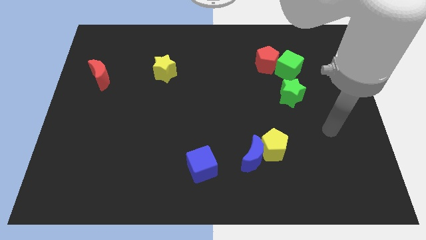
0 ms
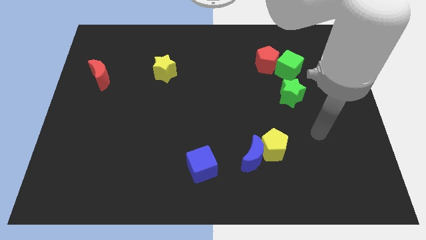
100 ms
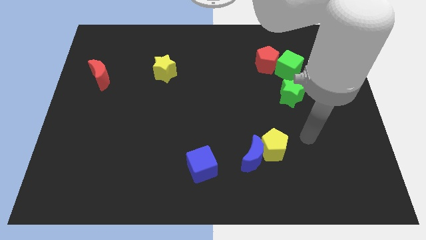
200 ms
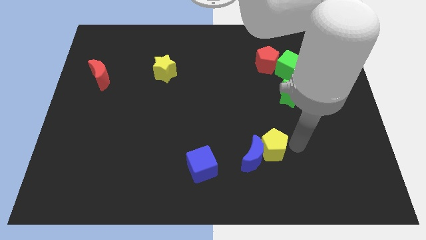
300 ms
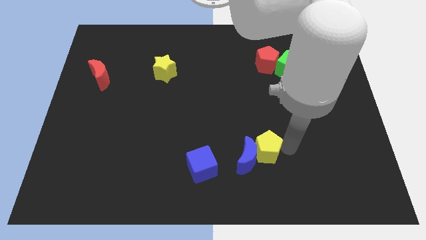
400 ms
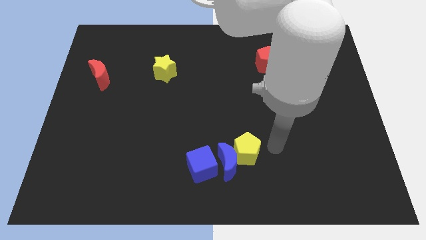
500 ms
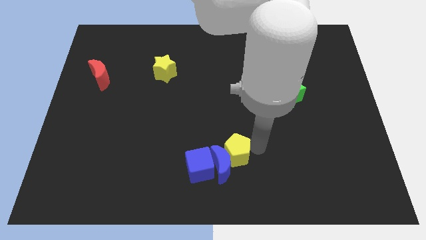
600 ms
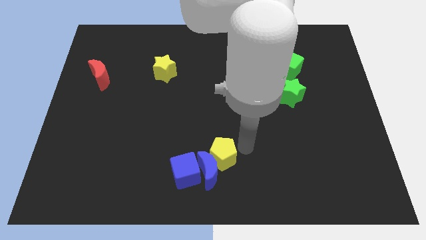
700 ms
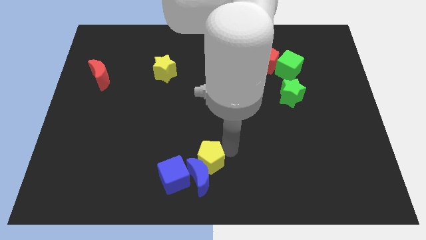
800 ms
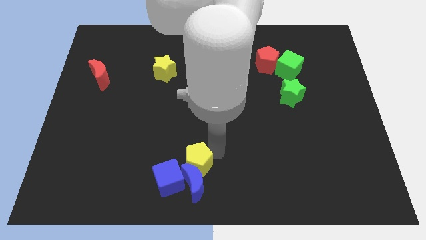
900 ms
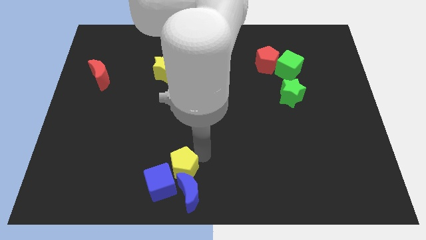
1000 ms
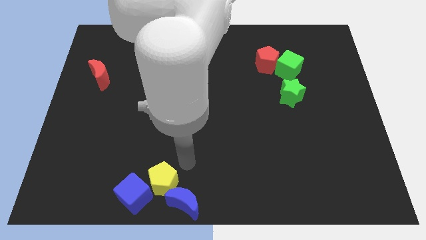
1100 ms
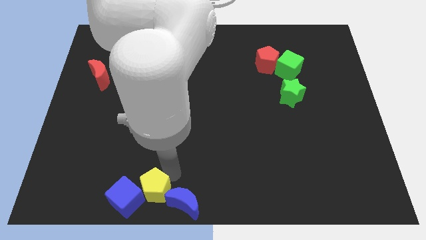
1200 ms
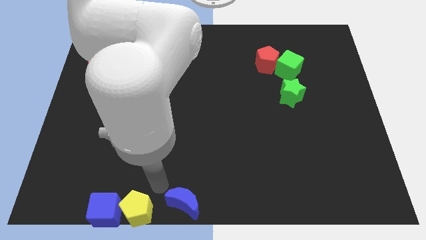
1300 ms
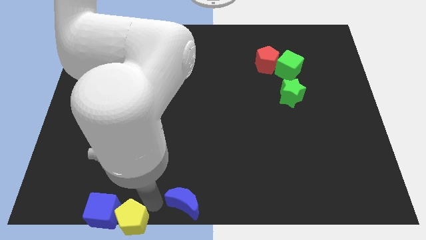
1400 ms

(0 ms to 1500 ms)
move the blue moon away from the yellow pentagon

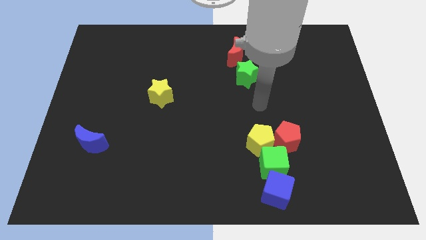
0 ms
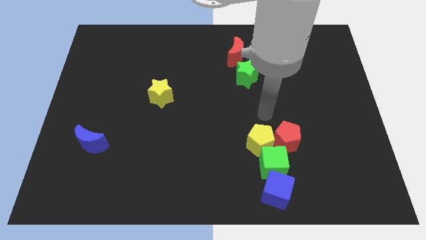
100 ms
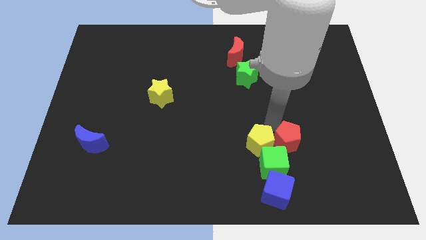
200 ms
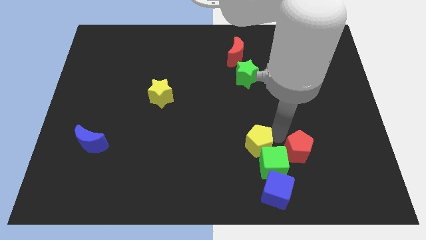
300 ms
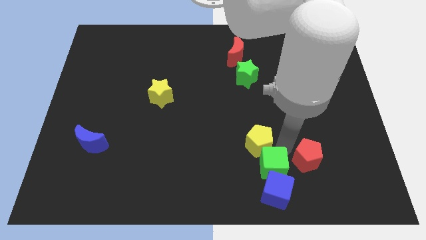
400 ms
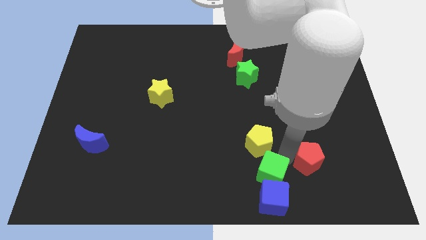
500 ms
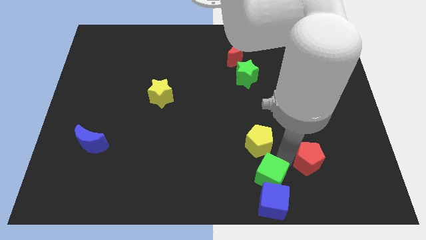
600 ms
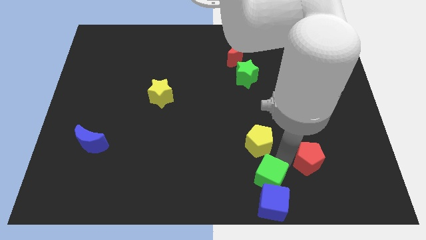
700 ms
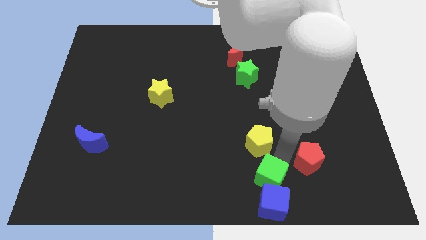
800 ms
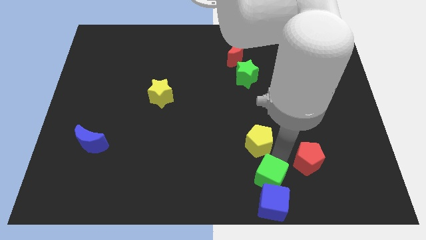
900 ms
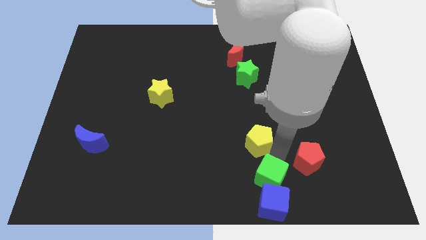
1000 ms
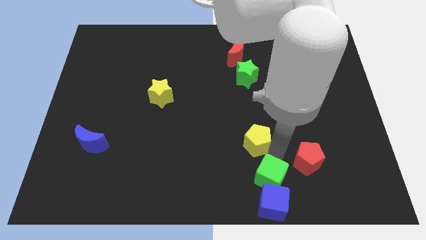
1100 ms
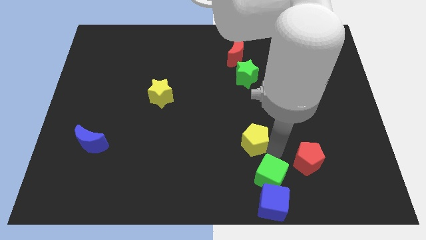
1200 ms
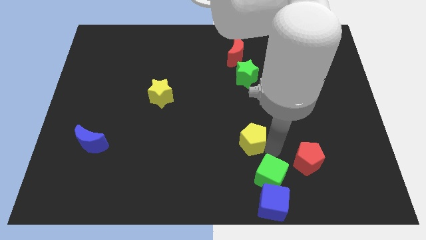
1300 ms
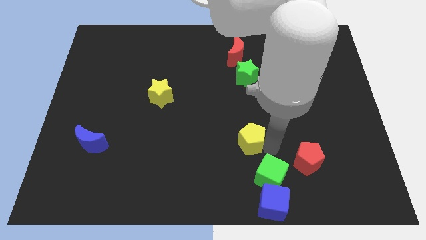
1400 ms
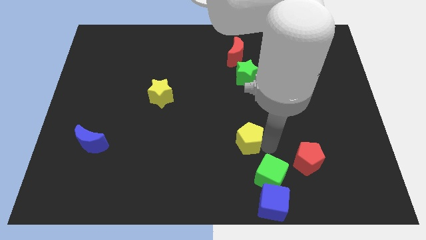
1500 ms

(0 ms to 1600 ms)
move the yellow pentagon away from the green cube and red pentagon

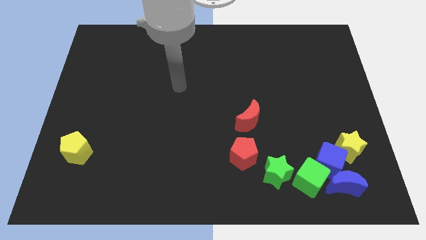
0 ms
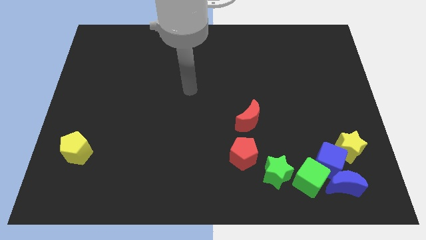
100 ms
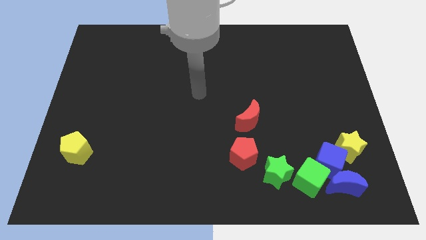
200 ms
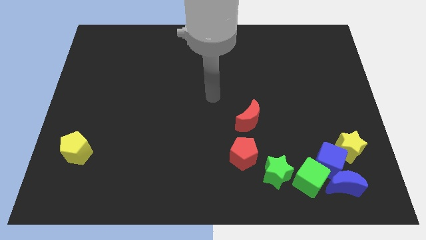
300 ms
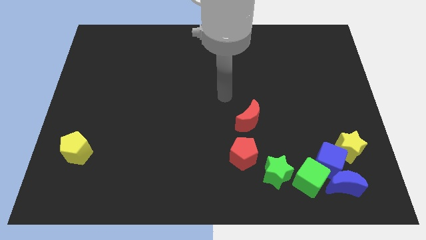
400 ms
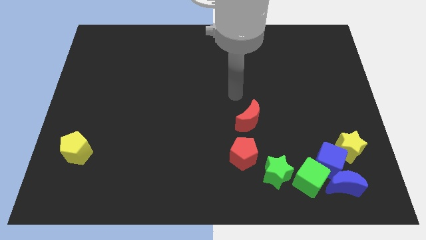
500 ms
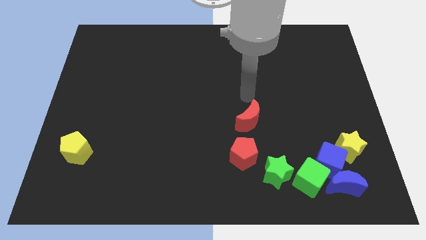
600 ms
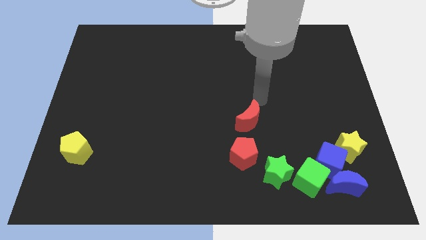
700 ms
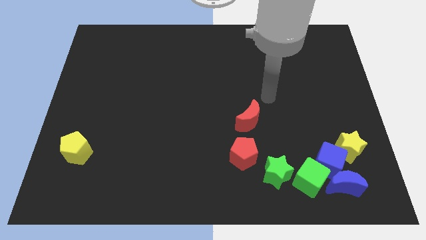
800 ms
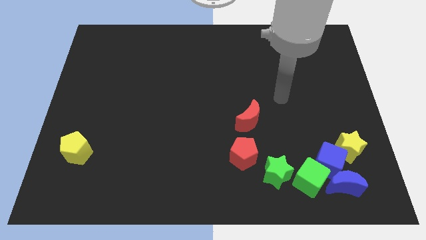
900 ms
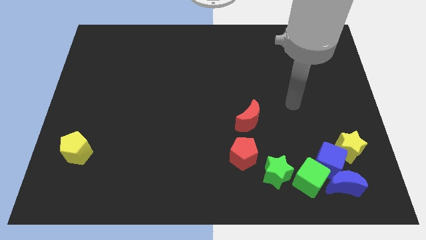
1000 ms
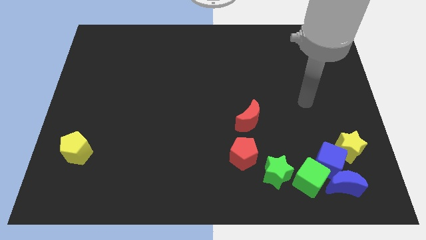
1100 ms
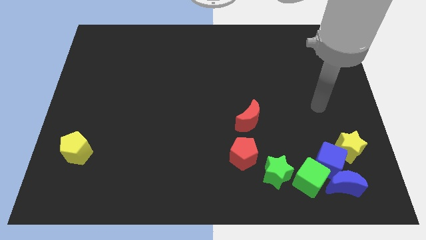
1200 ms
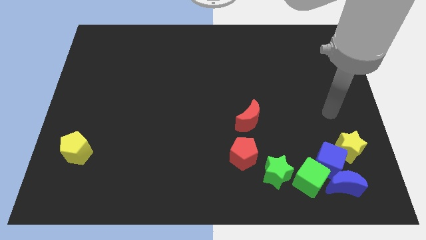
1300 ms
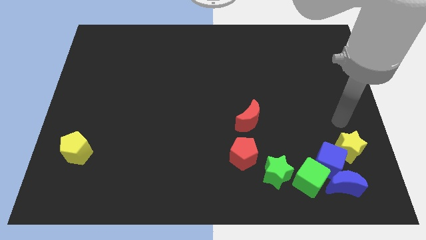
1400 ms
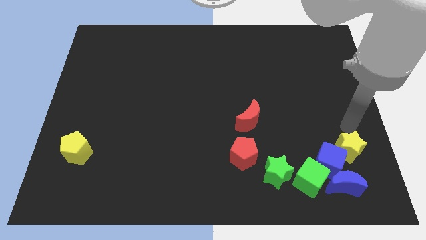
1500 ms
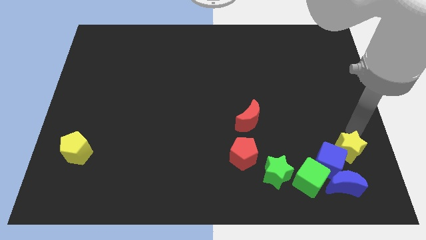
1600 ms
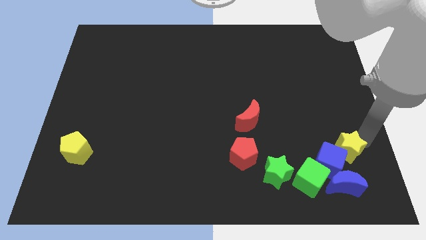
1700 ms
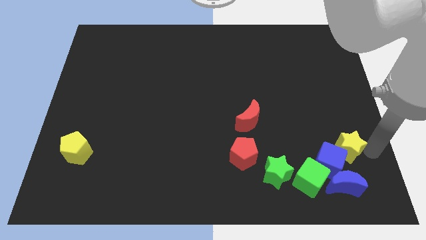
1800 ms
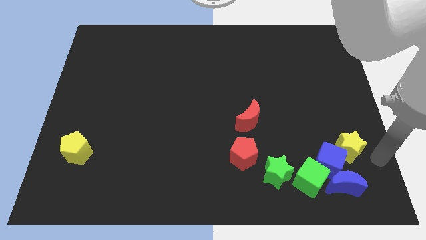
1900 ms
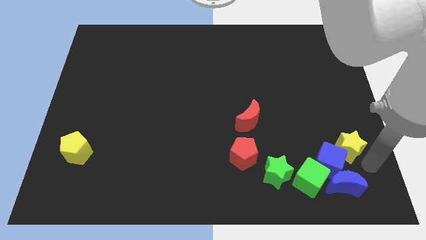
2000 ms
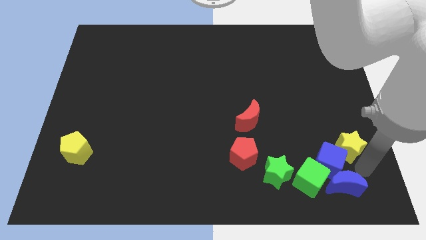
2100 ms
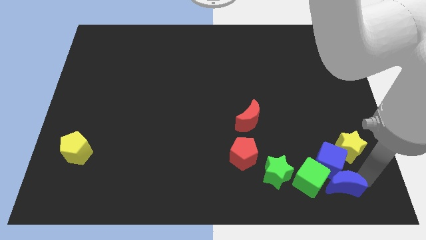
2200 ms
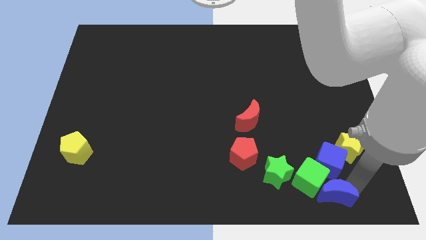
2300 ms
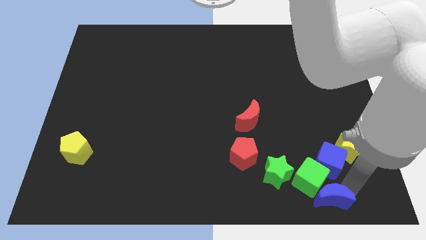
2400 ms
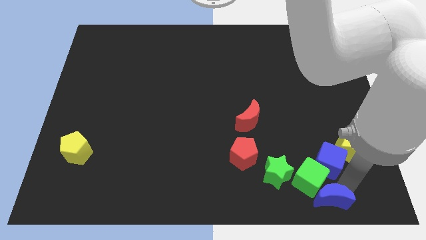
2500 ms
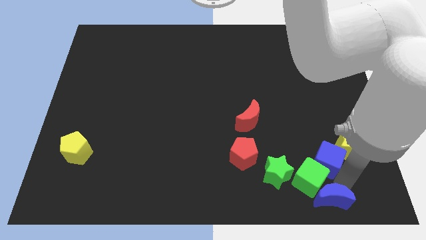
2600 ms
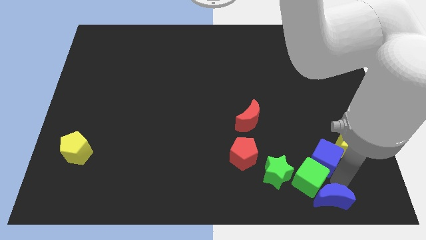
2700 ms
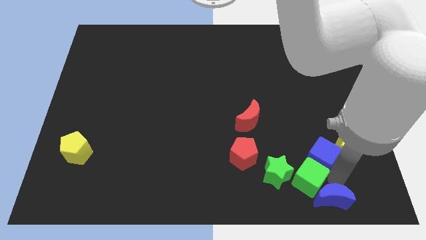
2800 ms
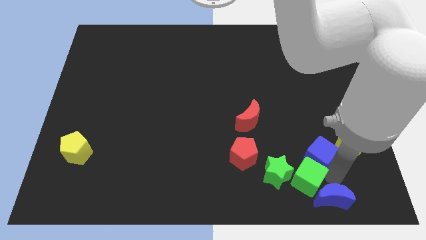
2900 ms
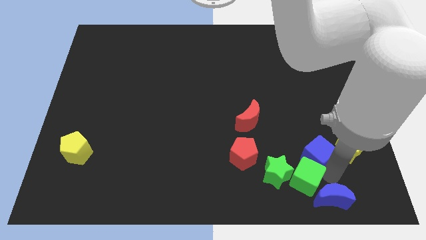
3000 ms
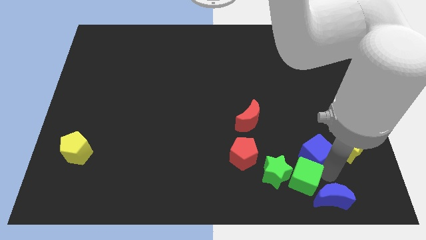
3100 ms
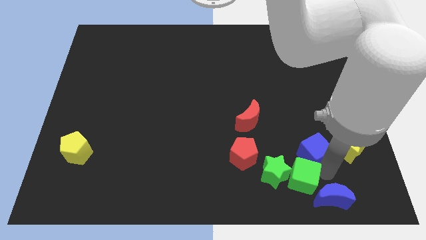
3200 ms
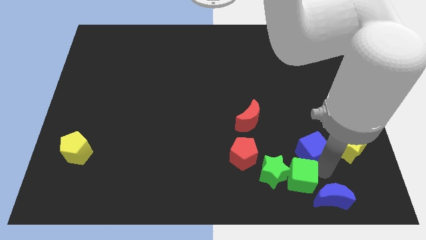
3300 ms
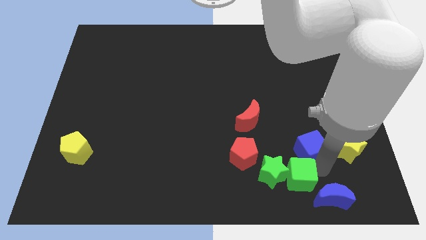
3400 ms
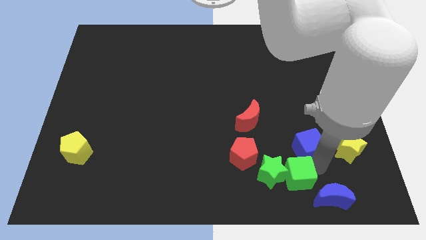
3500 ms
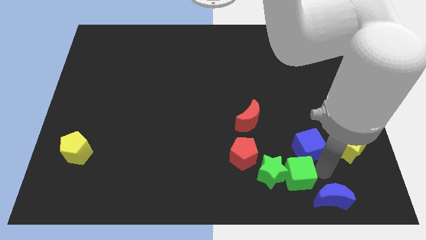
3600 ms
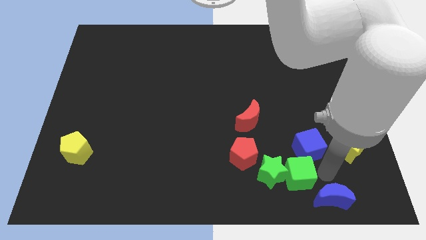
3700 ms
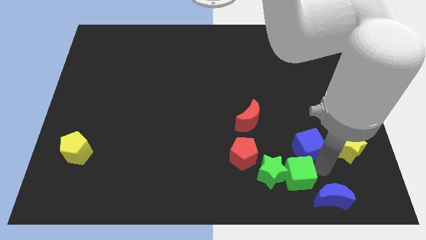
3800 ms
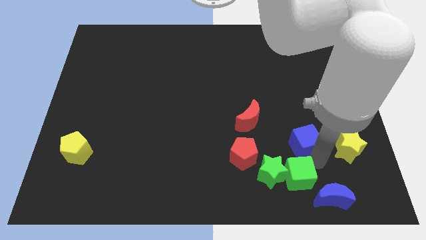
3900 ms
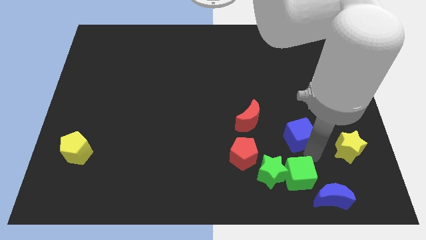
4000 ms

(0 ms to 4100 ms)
separate the blue cube from the group of blocks

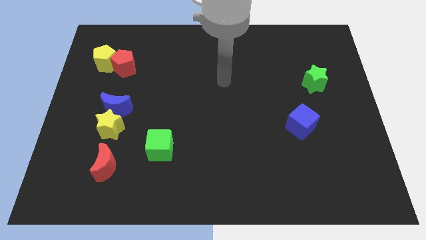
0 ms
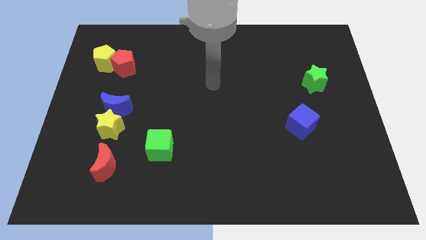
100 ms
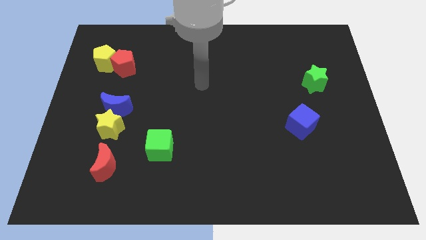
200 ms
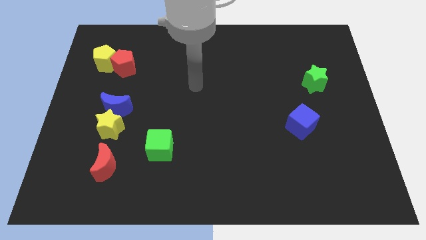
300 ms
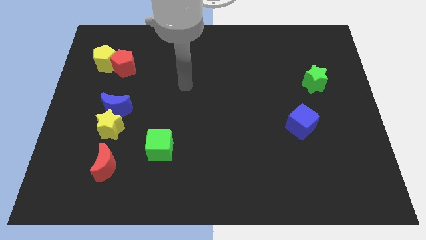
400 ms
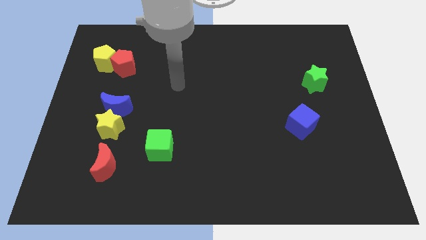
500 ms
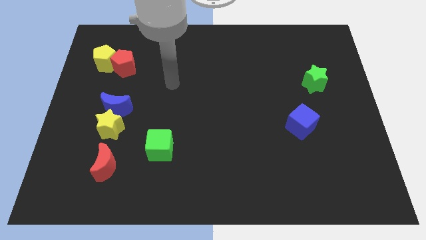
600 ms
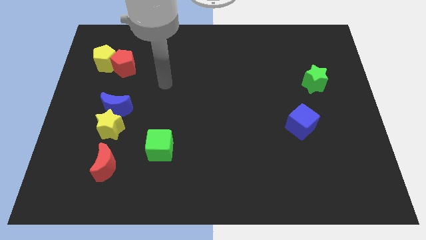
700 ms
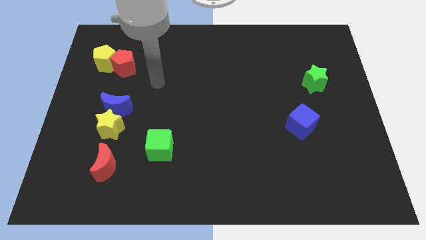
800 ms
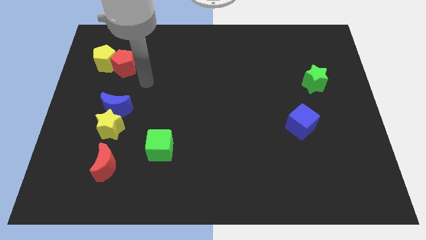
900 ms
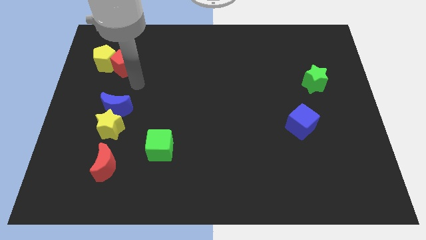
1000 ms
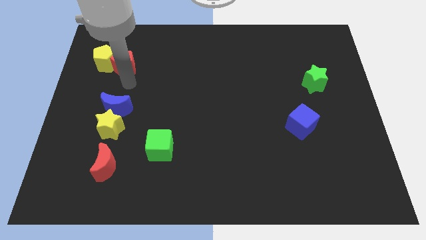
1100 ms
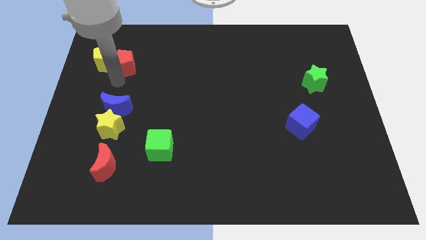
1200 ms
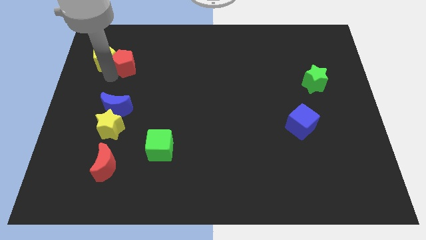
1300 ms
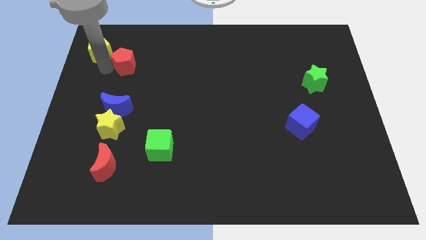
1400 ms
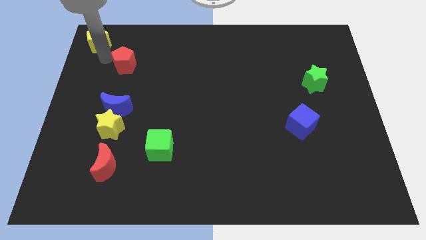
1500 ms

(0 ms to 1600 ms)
move the red pentagon away from the yellow pentagon

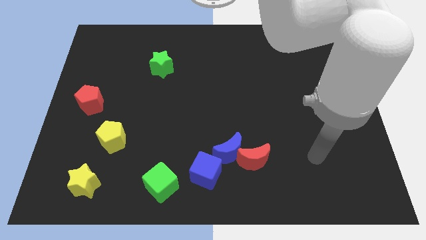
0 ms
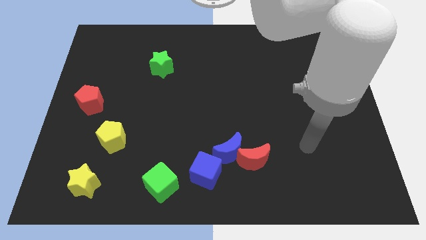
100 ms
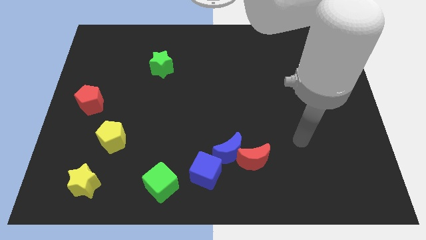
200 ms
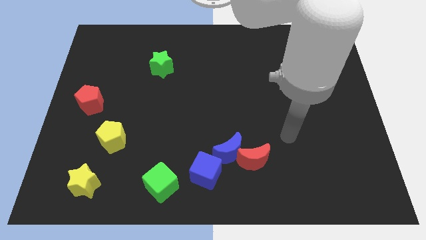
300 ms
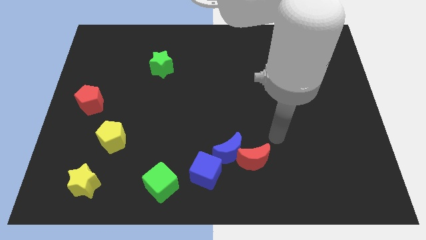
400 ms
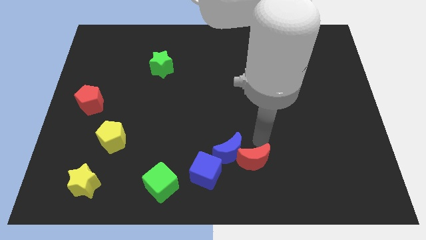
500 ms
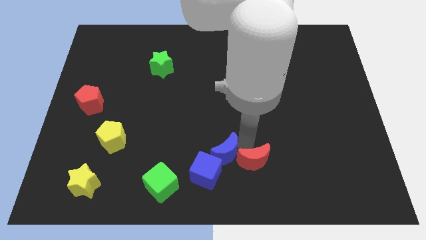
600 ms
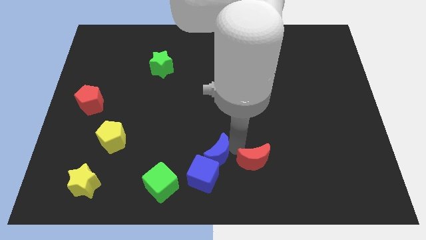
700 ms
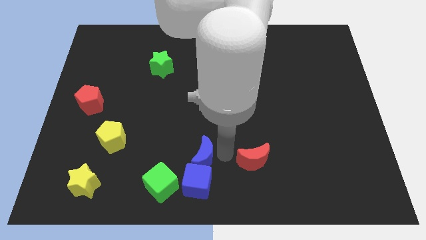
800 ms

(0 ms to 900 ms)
move the red moon away from the blue moon
